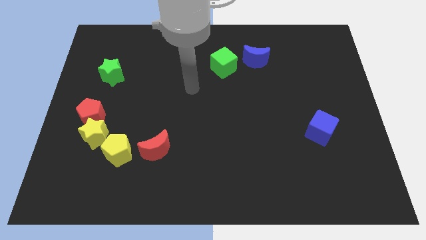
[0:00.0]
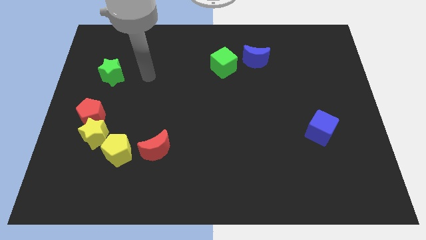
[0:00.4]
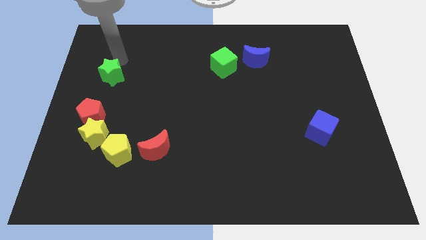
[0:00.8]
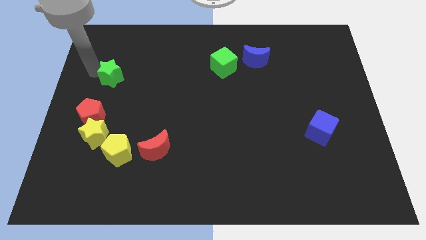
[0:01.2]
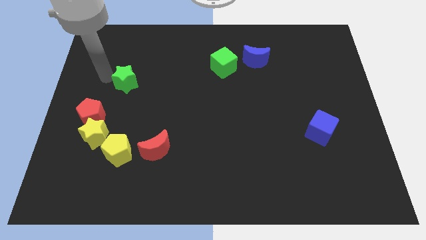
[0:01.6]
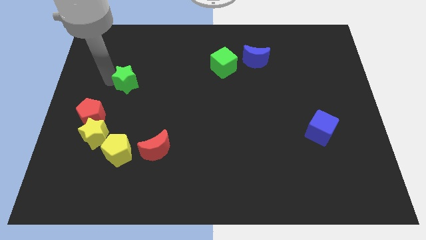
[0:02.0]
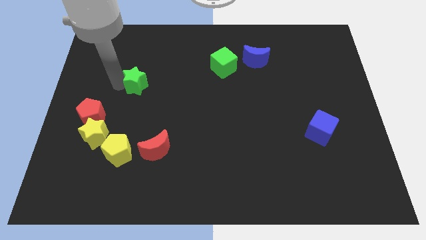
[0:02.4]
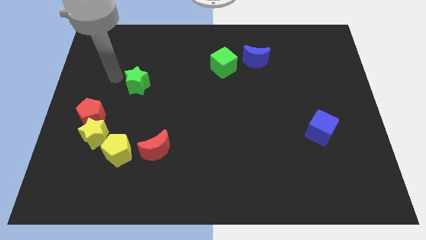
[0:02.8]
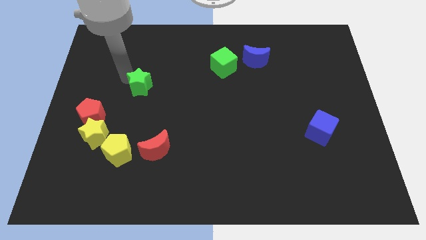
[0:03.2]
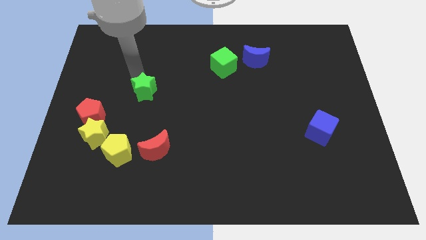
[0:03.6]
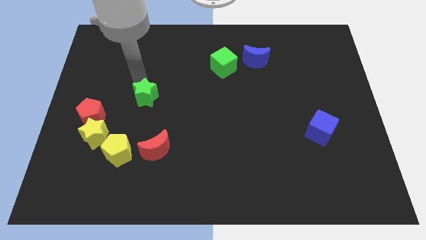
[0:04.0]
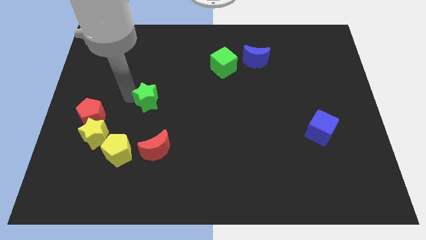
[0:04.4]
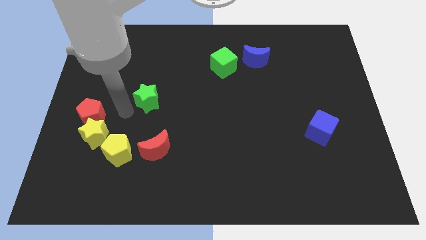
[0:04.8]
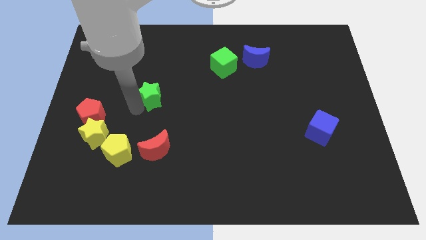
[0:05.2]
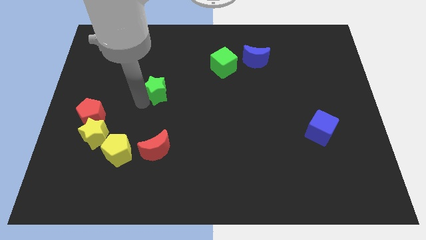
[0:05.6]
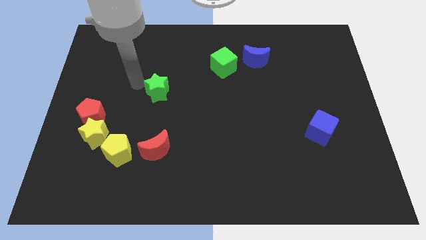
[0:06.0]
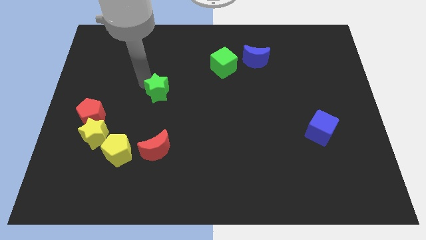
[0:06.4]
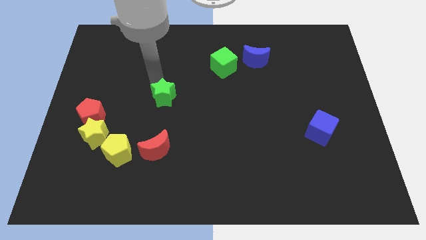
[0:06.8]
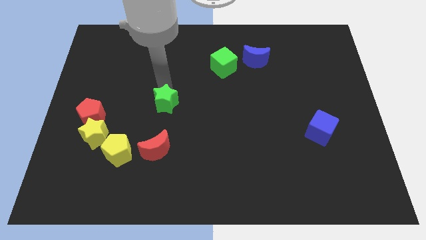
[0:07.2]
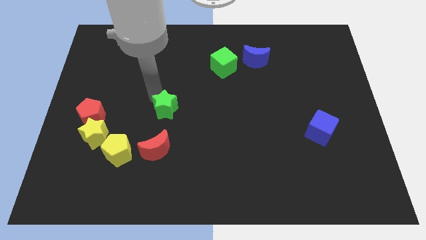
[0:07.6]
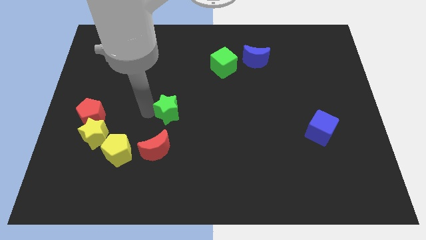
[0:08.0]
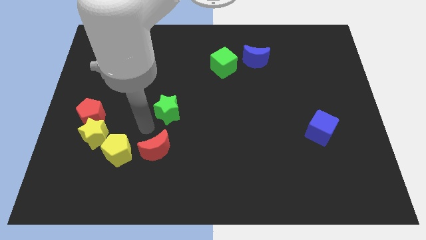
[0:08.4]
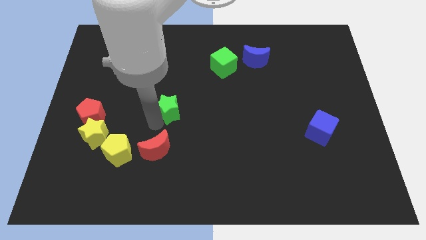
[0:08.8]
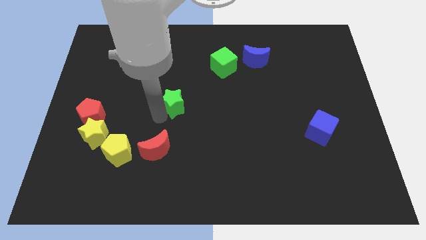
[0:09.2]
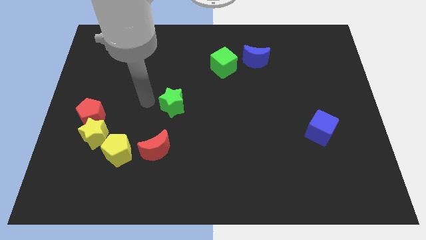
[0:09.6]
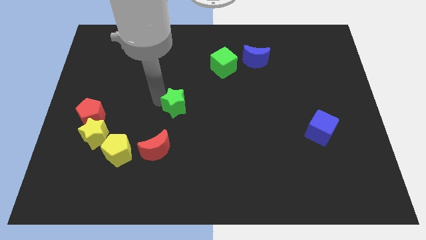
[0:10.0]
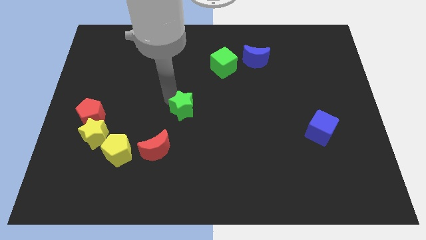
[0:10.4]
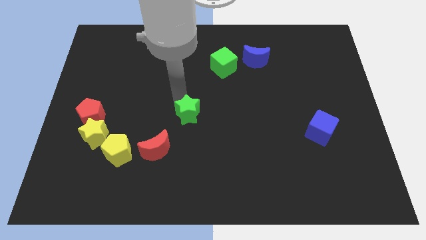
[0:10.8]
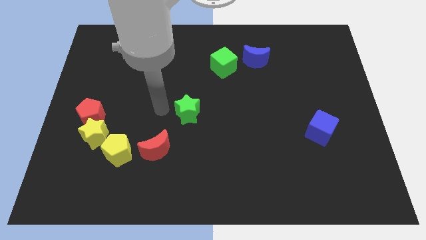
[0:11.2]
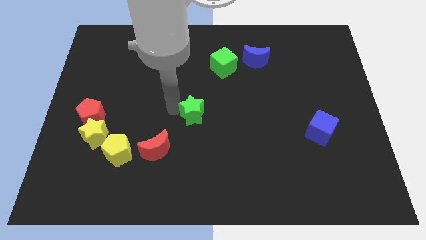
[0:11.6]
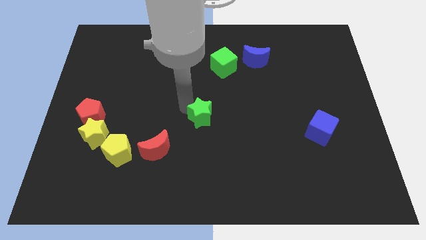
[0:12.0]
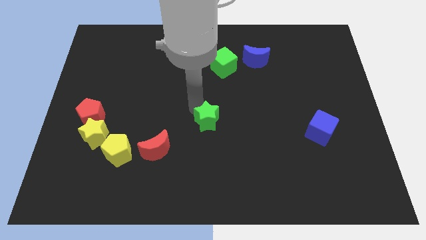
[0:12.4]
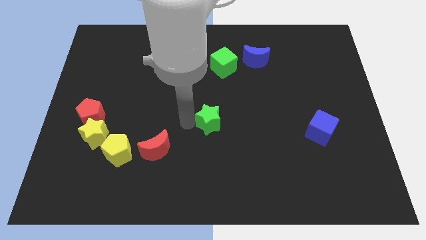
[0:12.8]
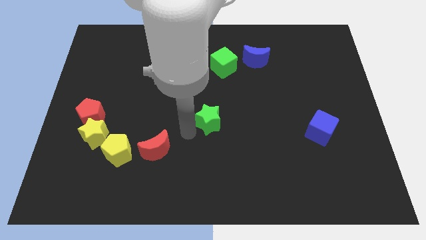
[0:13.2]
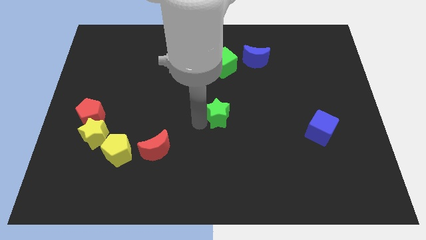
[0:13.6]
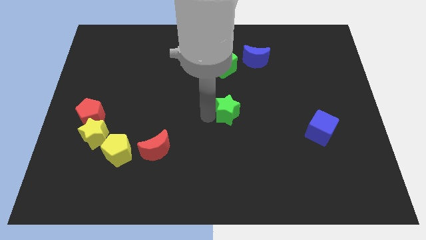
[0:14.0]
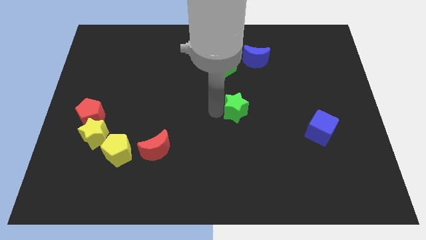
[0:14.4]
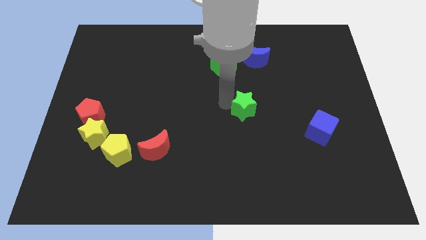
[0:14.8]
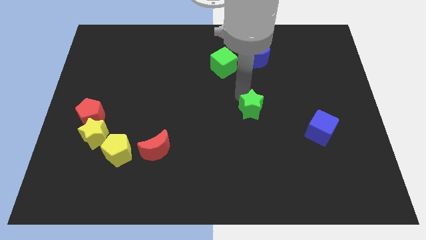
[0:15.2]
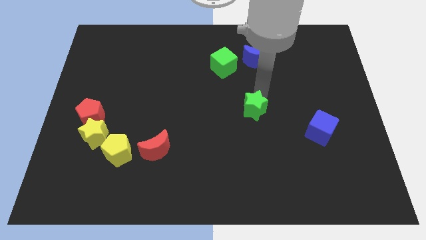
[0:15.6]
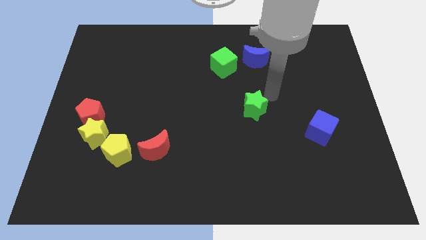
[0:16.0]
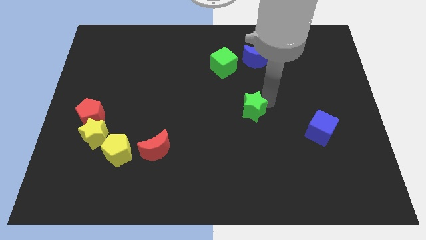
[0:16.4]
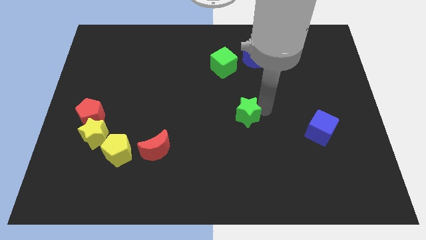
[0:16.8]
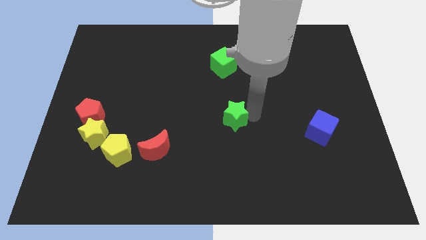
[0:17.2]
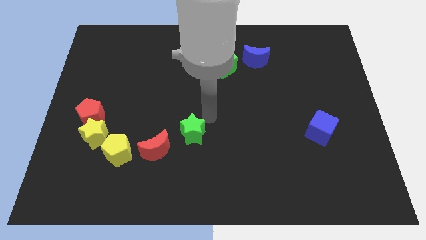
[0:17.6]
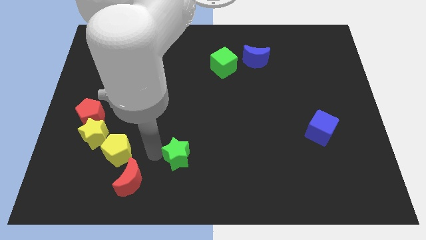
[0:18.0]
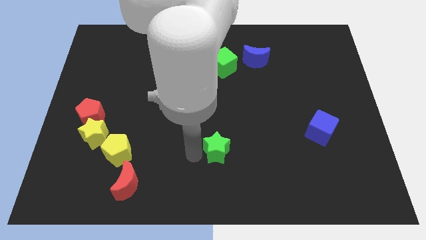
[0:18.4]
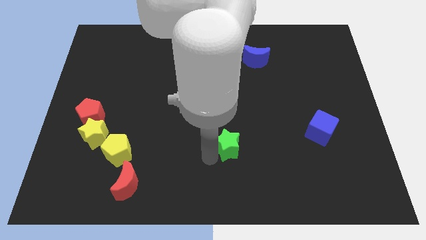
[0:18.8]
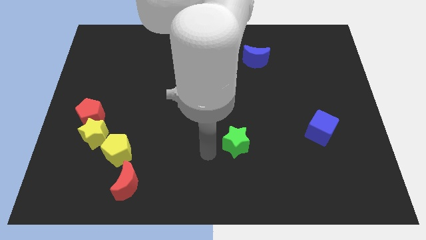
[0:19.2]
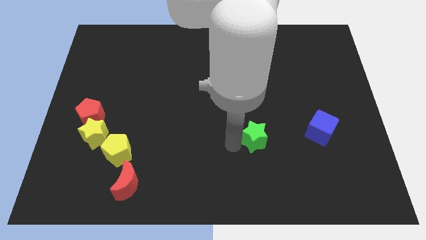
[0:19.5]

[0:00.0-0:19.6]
put the green star just left of the blue cube

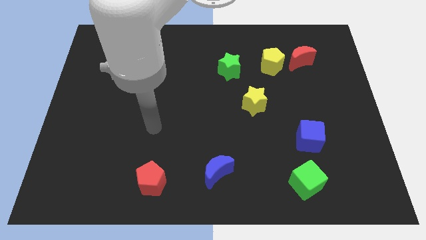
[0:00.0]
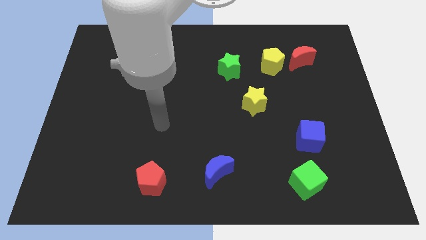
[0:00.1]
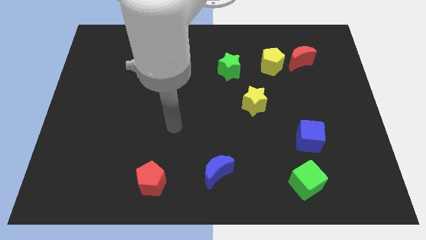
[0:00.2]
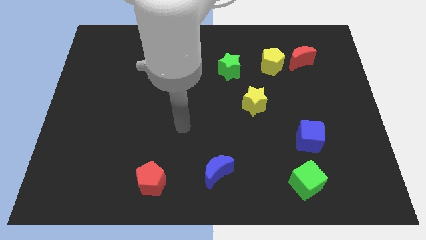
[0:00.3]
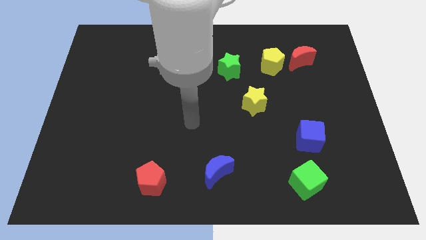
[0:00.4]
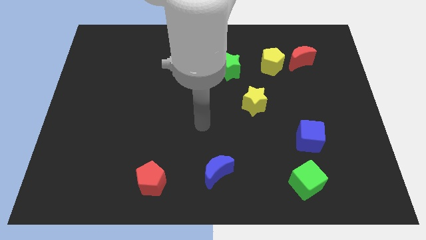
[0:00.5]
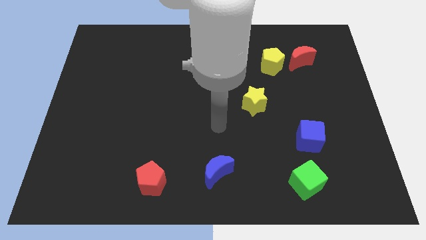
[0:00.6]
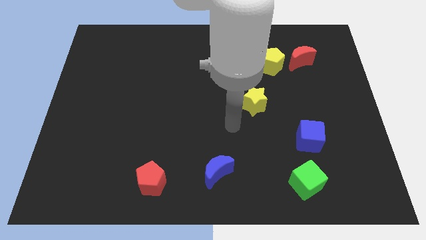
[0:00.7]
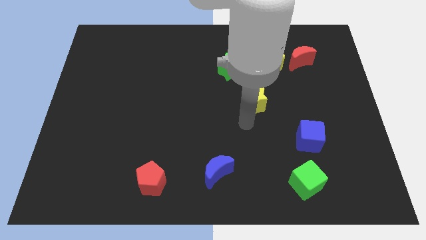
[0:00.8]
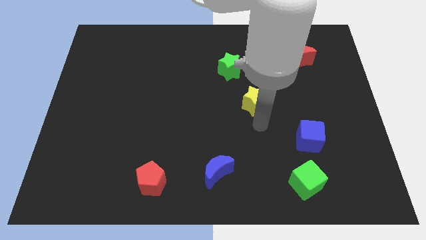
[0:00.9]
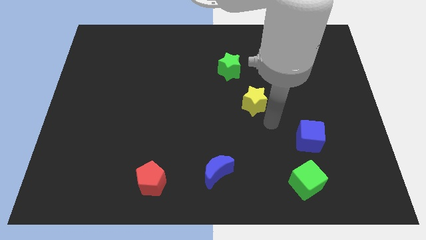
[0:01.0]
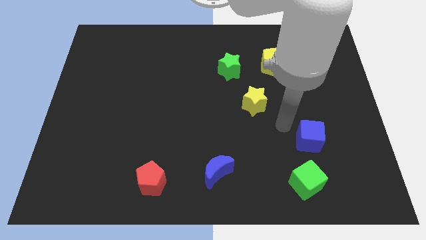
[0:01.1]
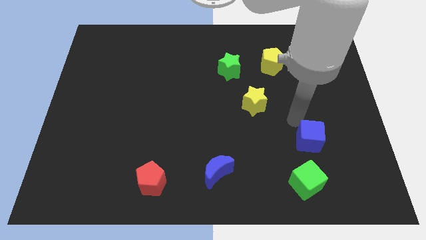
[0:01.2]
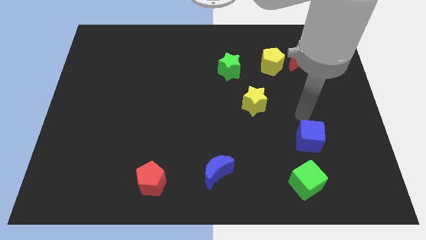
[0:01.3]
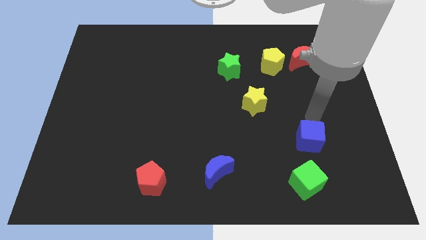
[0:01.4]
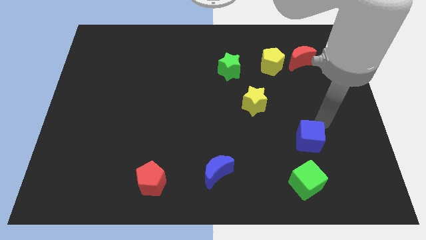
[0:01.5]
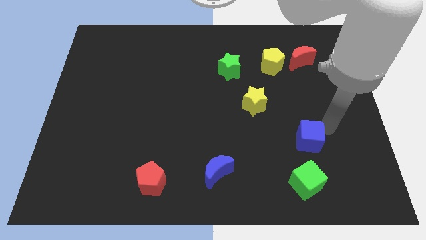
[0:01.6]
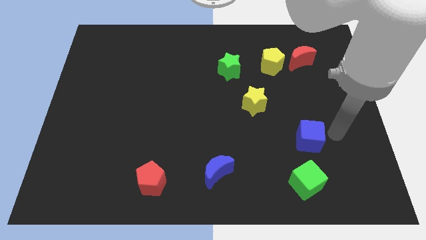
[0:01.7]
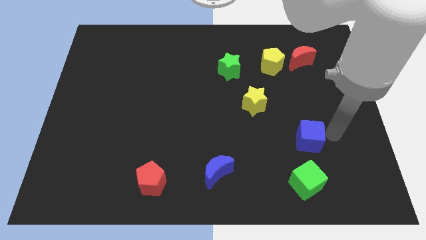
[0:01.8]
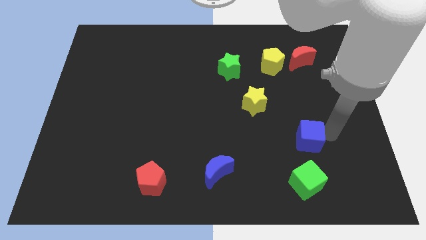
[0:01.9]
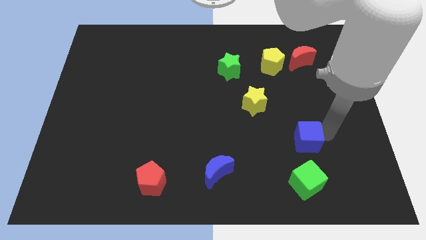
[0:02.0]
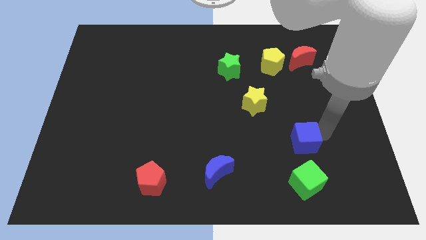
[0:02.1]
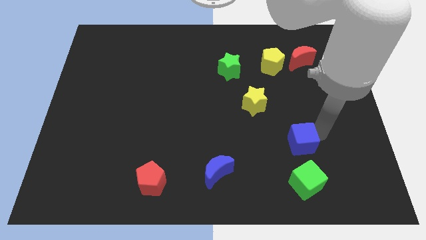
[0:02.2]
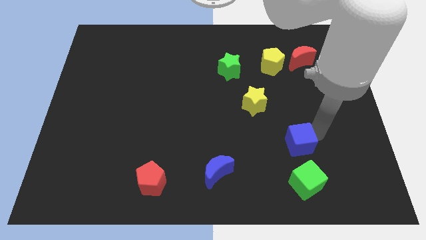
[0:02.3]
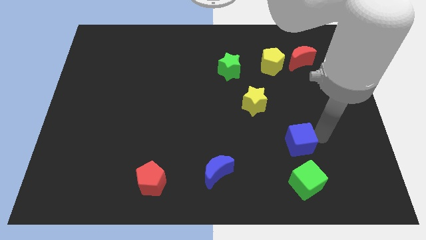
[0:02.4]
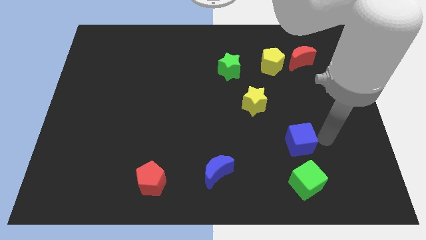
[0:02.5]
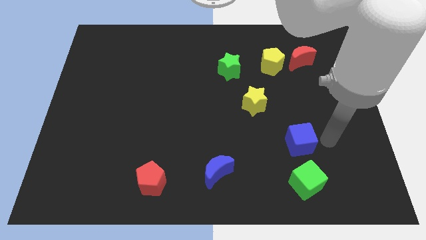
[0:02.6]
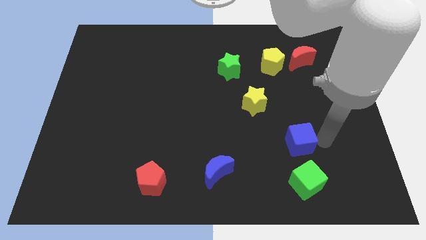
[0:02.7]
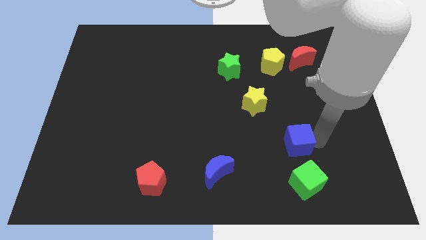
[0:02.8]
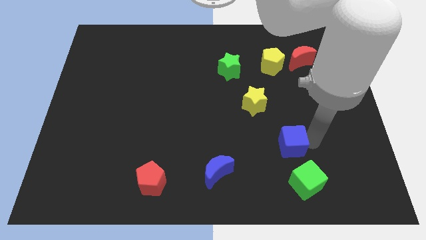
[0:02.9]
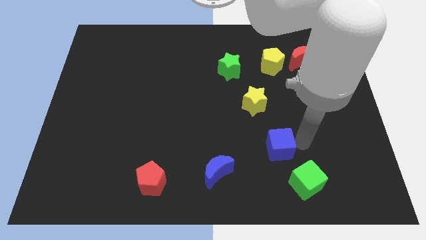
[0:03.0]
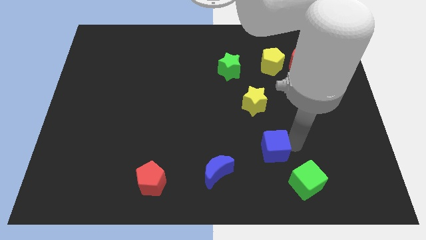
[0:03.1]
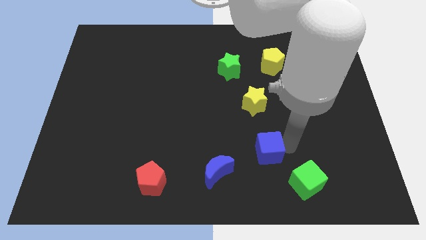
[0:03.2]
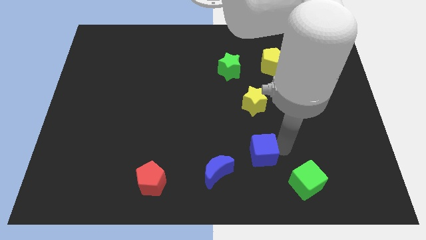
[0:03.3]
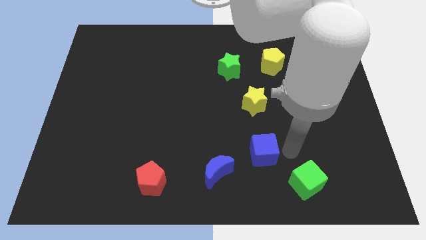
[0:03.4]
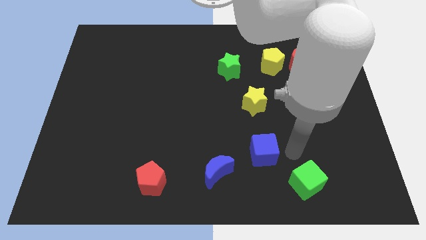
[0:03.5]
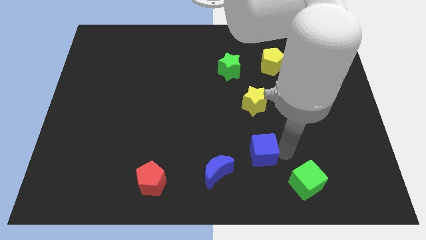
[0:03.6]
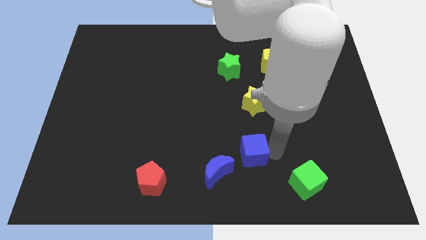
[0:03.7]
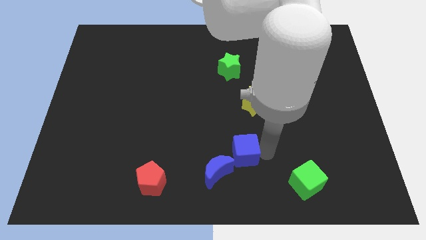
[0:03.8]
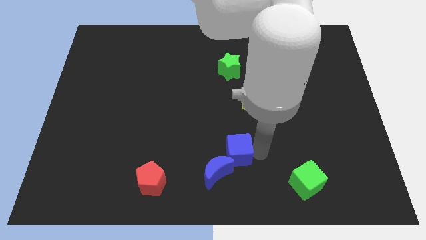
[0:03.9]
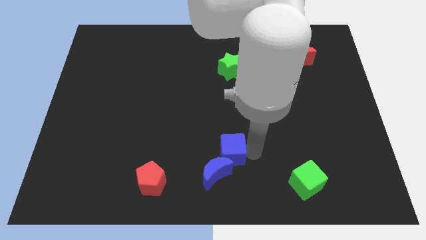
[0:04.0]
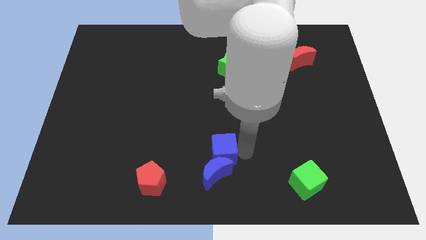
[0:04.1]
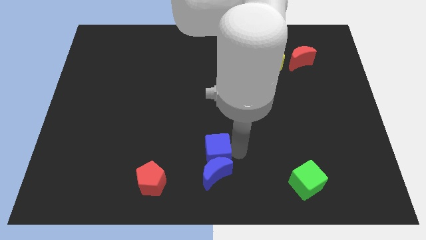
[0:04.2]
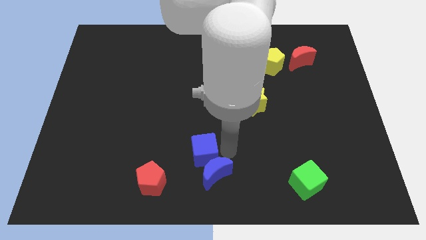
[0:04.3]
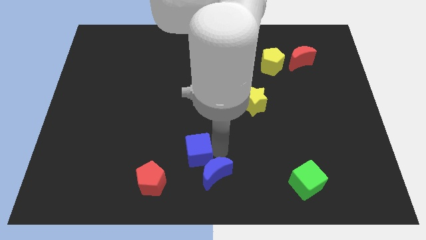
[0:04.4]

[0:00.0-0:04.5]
put the blue cube to the top right of the red pentagon
